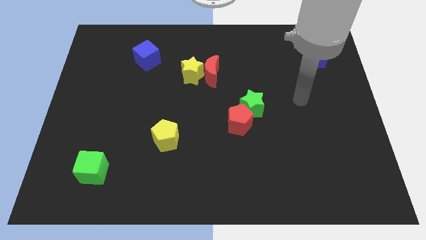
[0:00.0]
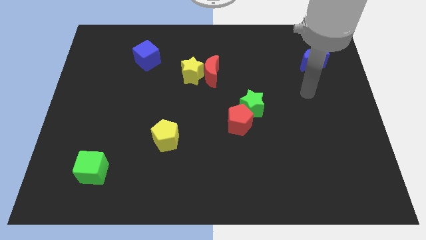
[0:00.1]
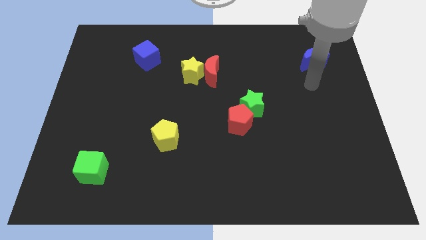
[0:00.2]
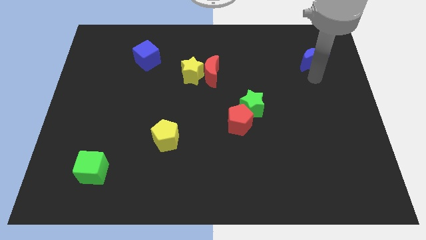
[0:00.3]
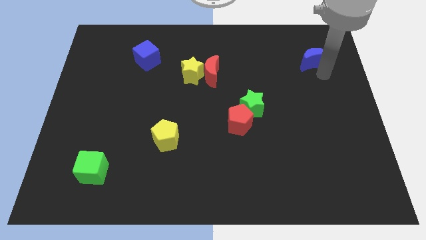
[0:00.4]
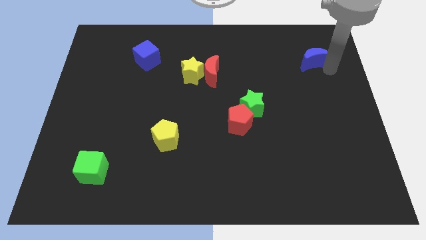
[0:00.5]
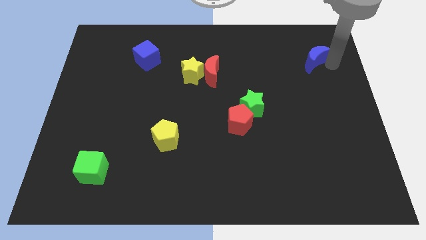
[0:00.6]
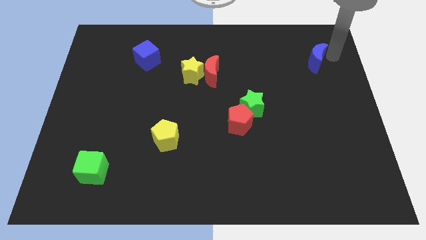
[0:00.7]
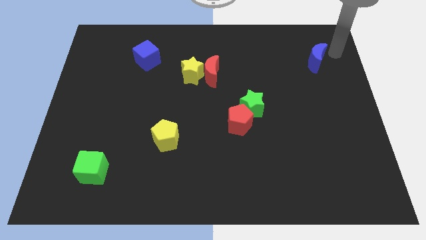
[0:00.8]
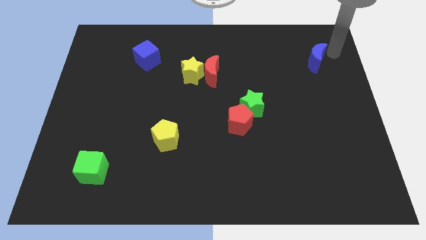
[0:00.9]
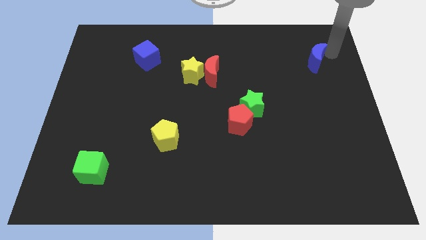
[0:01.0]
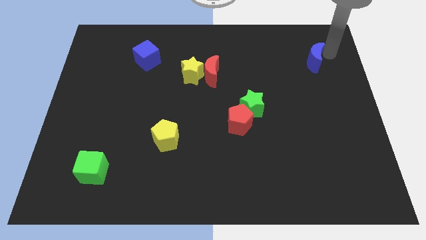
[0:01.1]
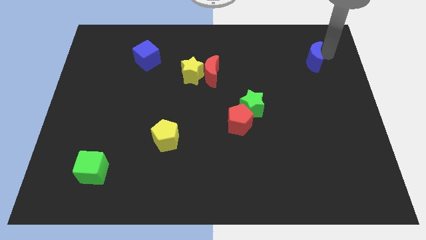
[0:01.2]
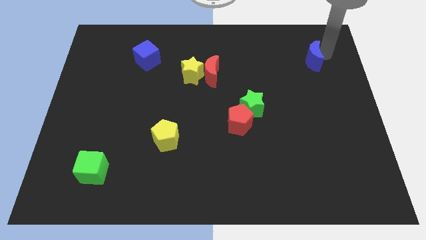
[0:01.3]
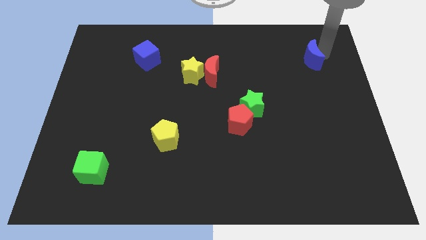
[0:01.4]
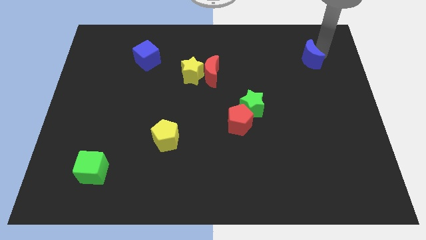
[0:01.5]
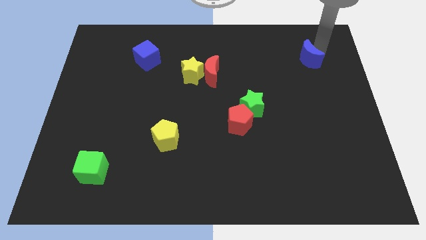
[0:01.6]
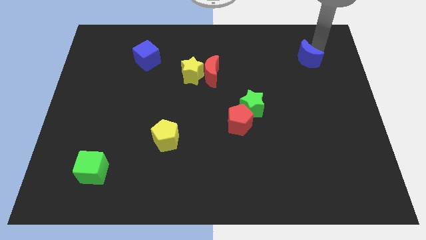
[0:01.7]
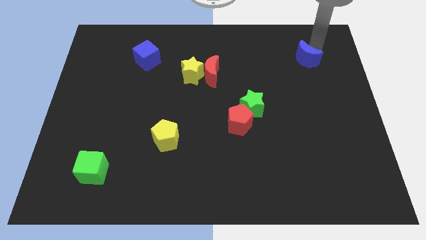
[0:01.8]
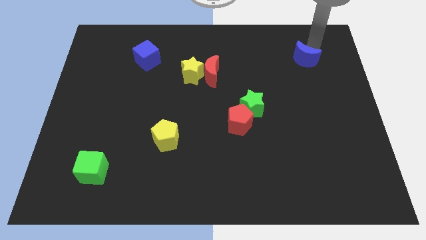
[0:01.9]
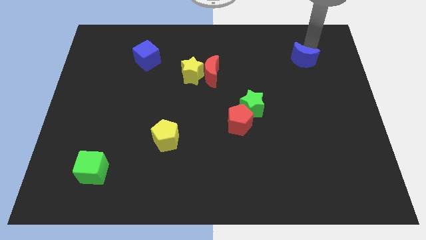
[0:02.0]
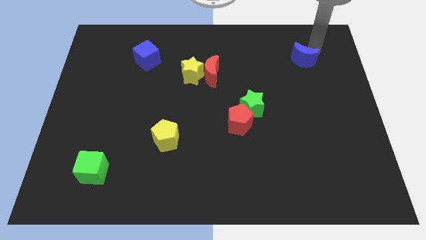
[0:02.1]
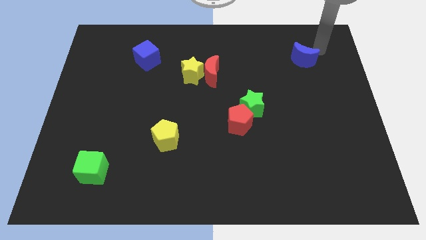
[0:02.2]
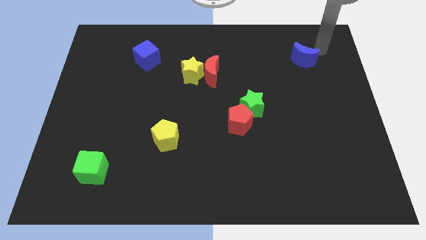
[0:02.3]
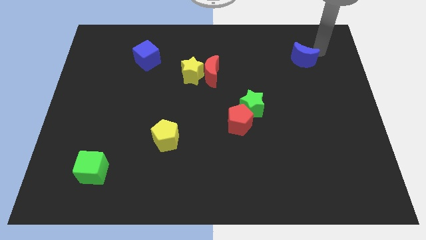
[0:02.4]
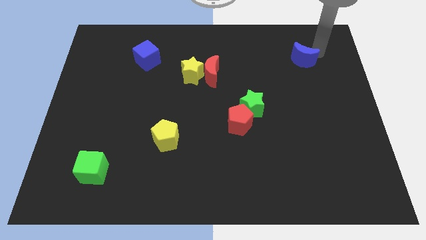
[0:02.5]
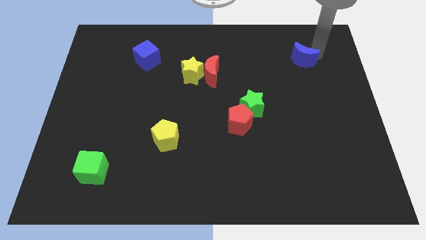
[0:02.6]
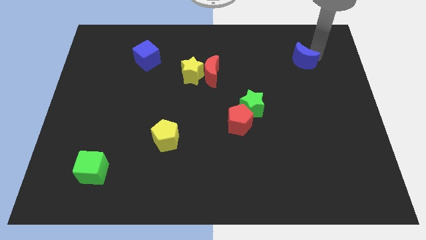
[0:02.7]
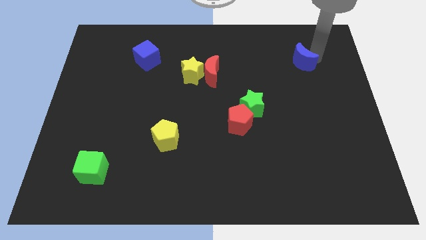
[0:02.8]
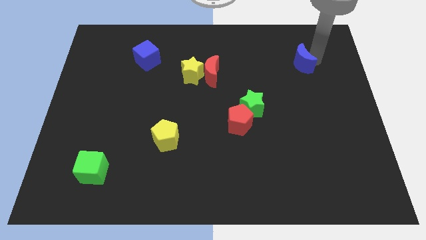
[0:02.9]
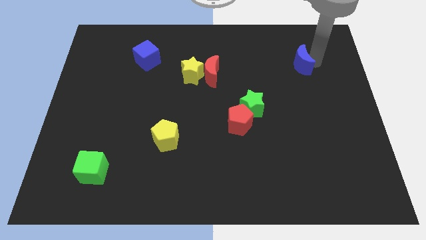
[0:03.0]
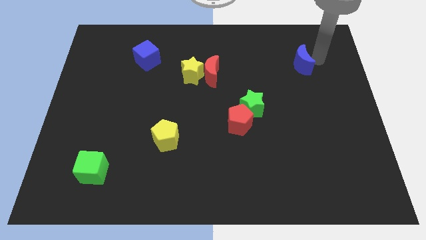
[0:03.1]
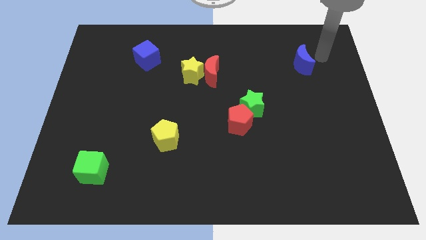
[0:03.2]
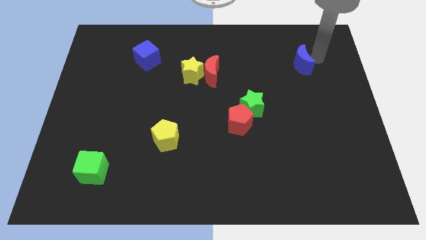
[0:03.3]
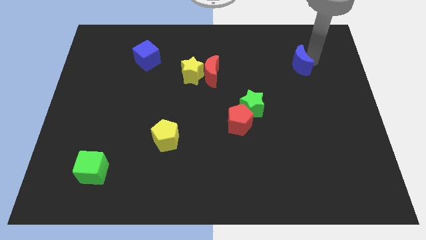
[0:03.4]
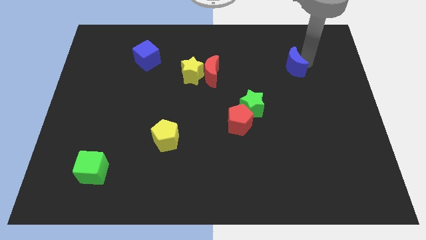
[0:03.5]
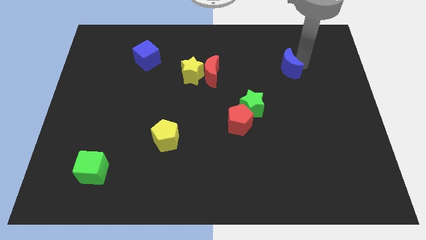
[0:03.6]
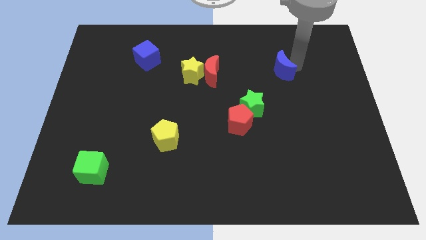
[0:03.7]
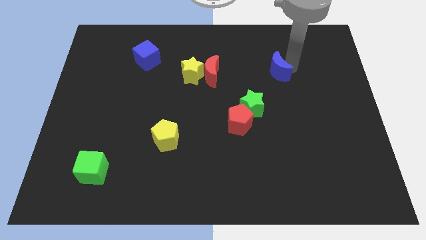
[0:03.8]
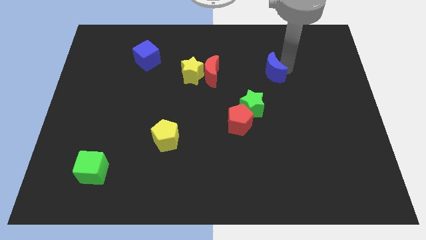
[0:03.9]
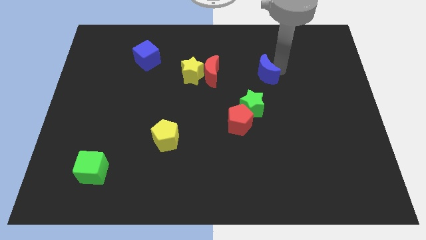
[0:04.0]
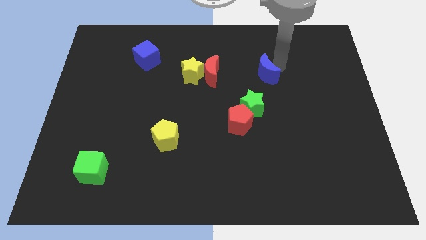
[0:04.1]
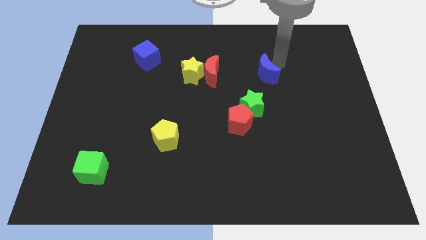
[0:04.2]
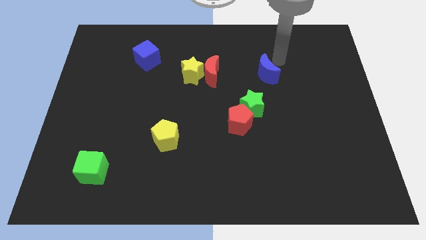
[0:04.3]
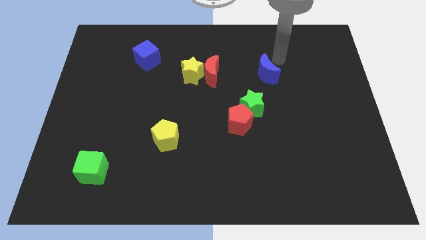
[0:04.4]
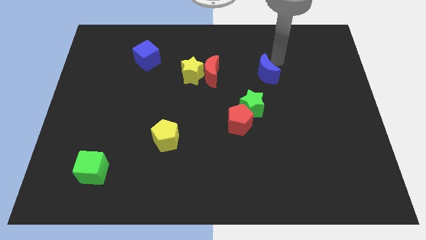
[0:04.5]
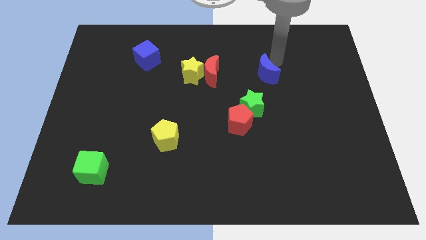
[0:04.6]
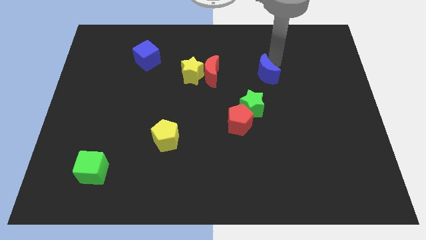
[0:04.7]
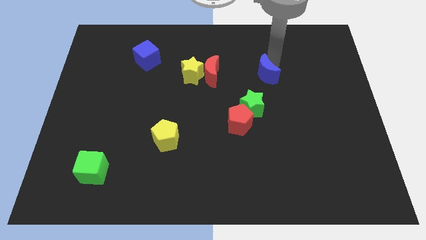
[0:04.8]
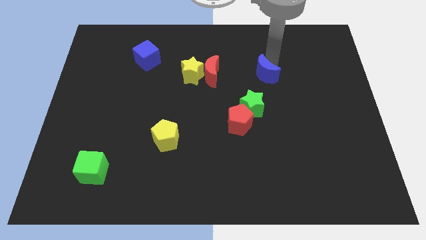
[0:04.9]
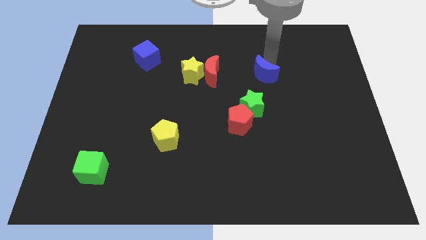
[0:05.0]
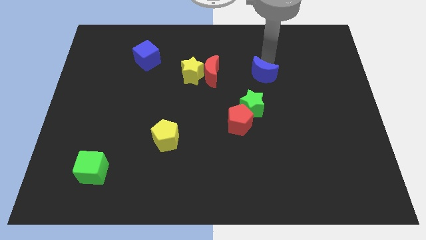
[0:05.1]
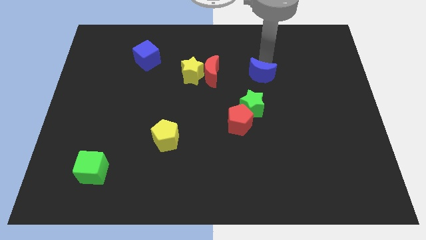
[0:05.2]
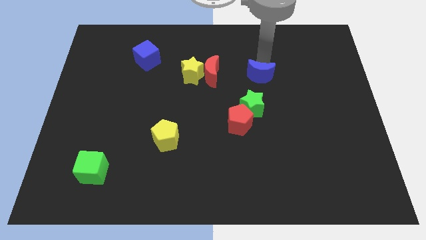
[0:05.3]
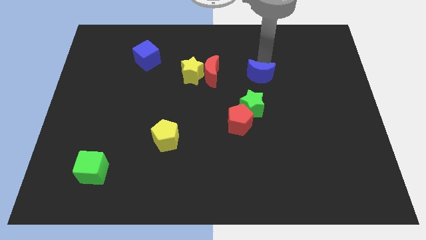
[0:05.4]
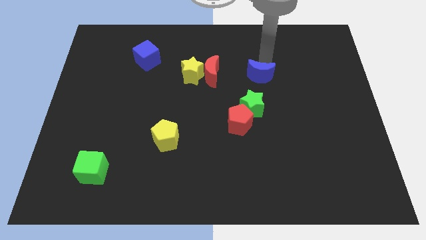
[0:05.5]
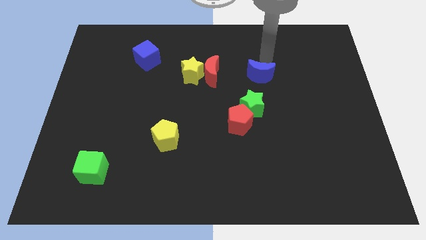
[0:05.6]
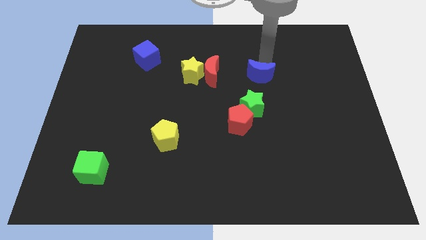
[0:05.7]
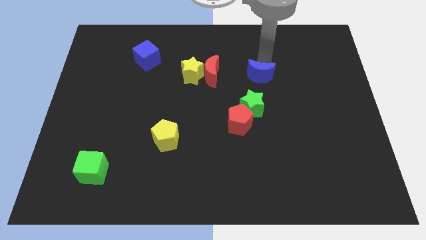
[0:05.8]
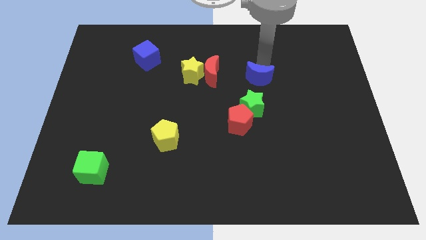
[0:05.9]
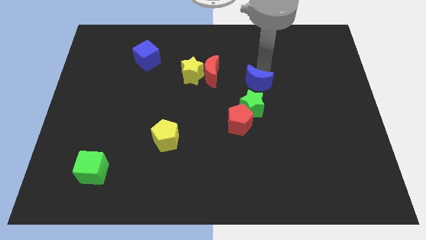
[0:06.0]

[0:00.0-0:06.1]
put the blue moon above the red pentagon

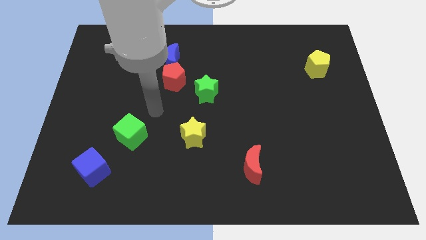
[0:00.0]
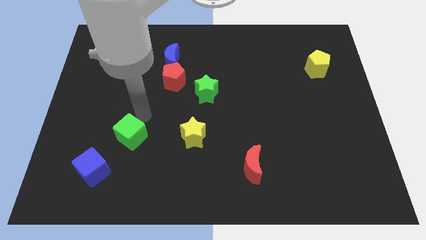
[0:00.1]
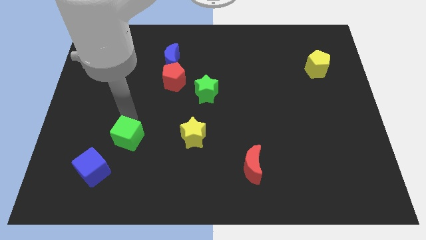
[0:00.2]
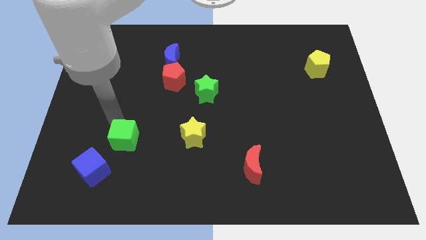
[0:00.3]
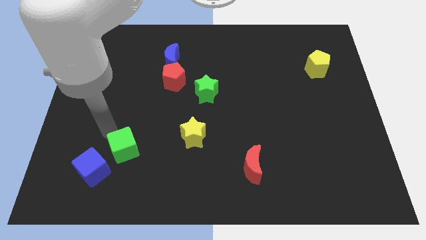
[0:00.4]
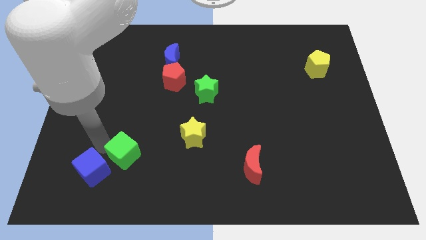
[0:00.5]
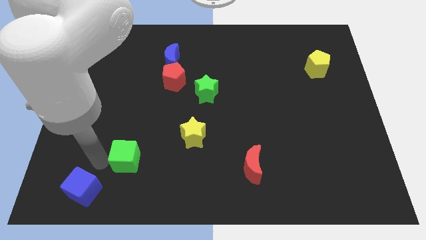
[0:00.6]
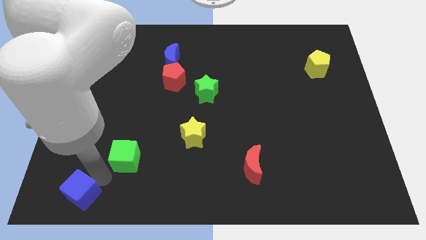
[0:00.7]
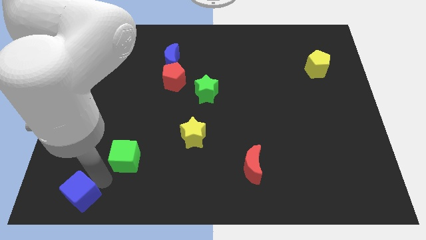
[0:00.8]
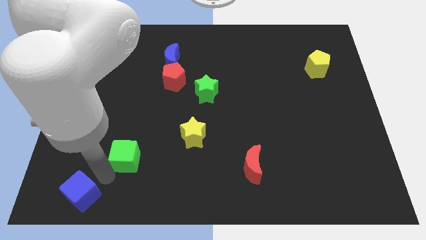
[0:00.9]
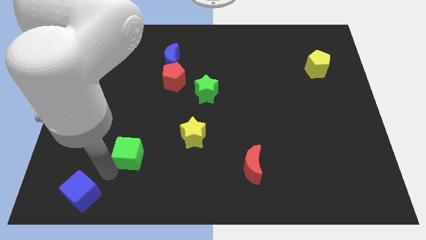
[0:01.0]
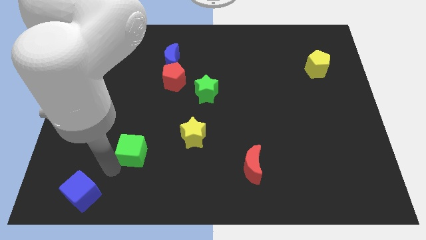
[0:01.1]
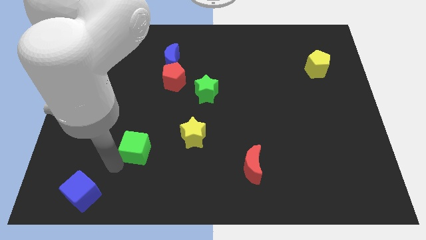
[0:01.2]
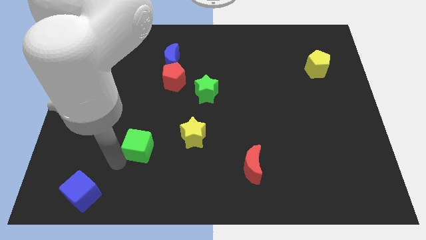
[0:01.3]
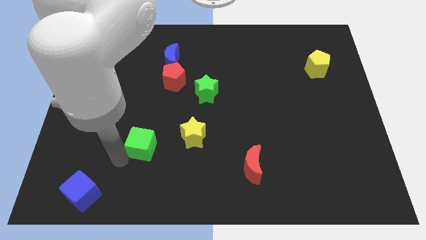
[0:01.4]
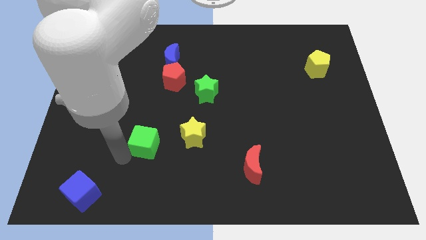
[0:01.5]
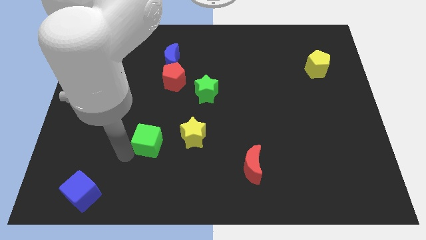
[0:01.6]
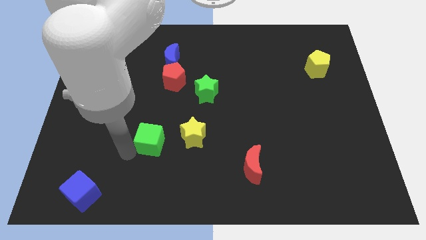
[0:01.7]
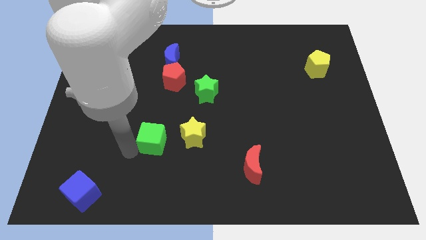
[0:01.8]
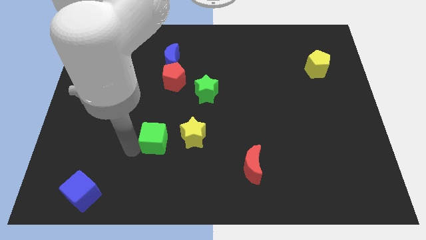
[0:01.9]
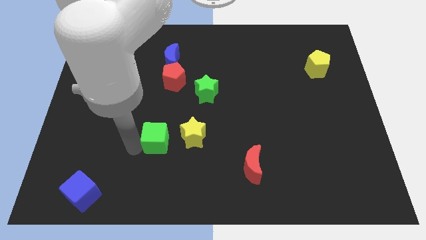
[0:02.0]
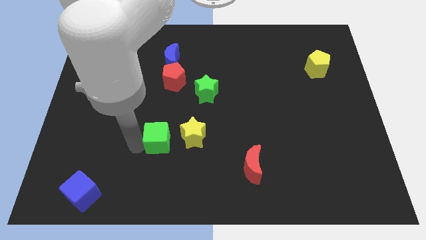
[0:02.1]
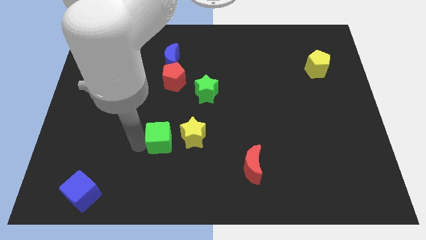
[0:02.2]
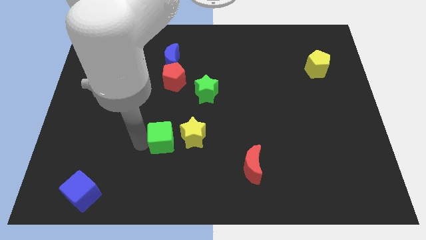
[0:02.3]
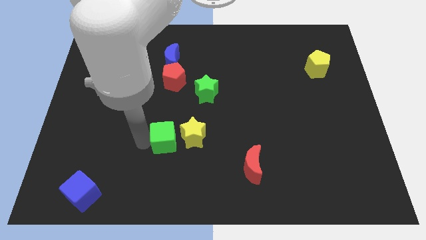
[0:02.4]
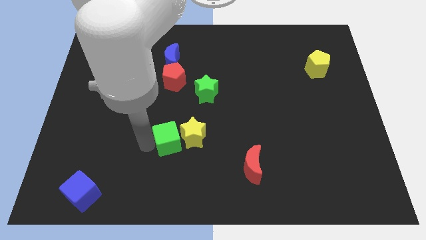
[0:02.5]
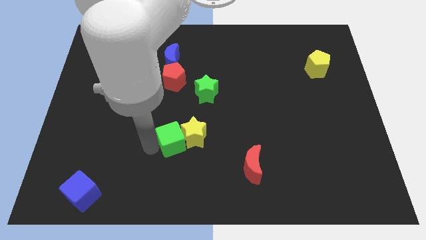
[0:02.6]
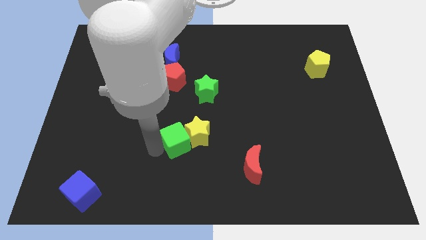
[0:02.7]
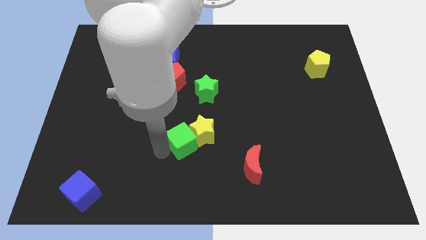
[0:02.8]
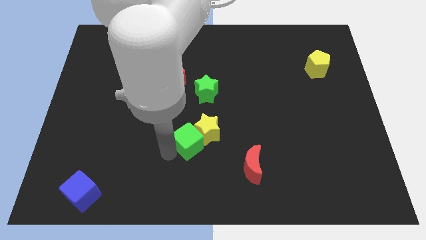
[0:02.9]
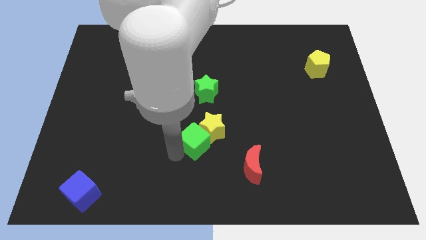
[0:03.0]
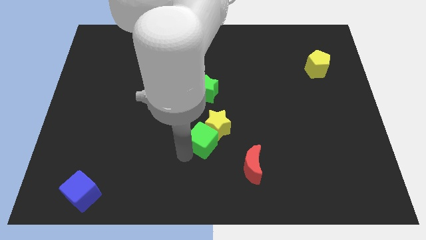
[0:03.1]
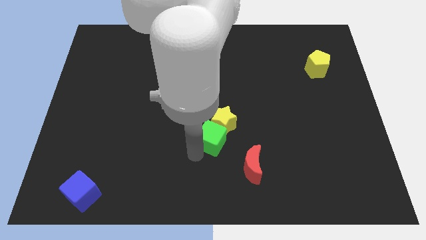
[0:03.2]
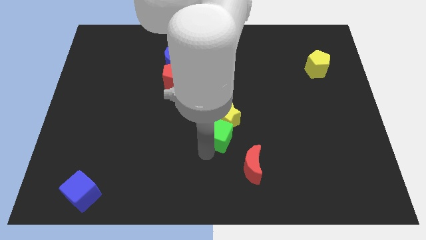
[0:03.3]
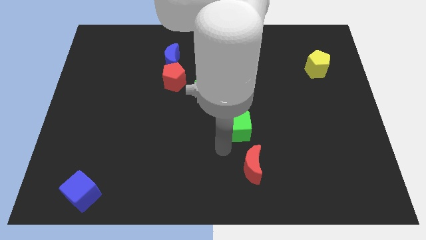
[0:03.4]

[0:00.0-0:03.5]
move the green cube to the bottom right of the green star
